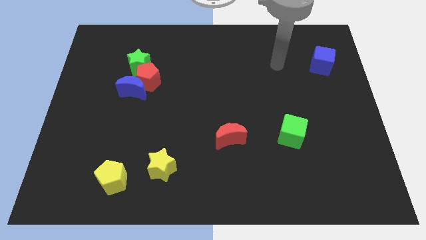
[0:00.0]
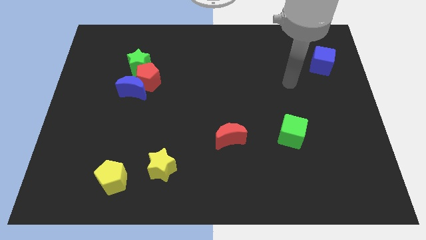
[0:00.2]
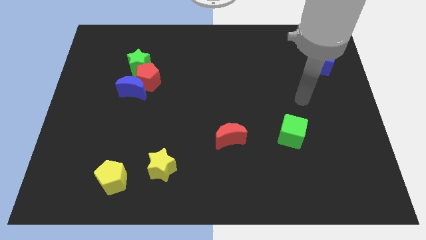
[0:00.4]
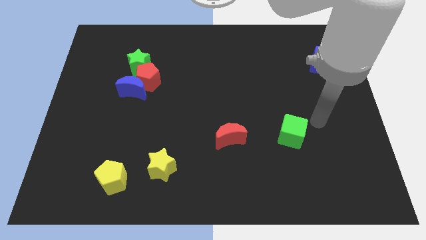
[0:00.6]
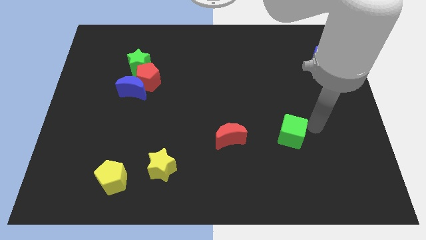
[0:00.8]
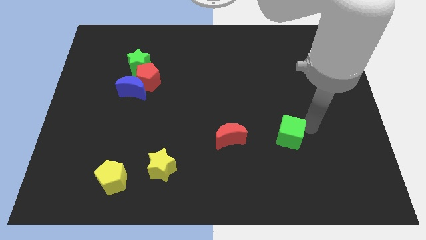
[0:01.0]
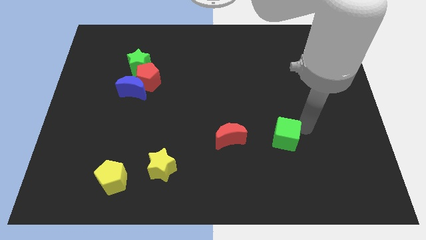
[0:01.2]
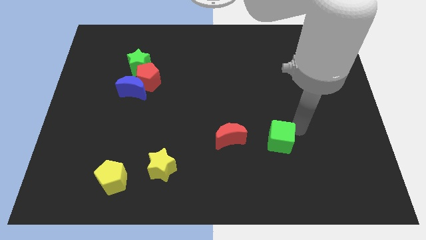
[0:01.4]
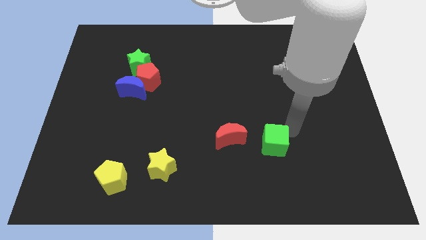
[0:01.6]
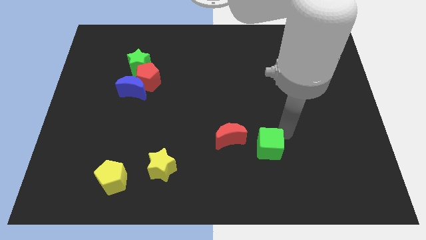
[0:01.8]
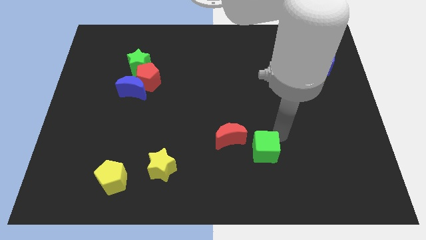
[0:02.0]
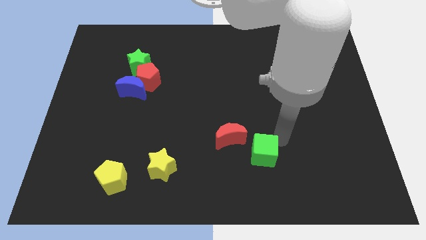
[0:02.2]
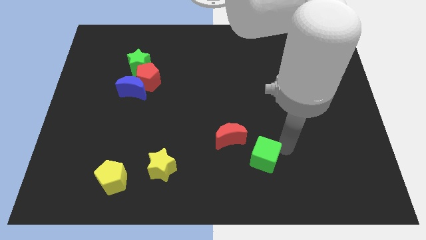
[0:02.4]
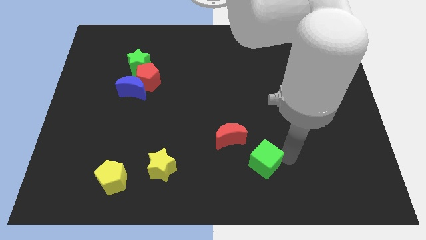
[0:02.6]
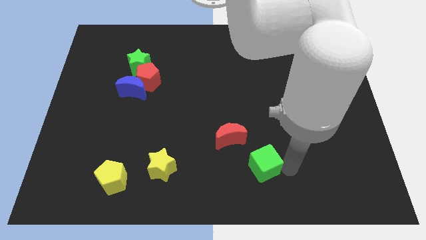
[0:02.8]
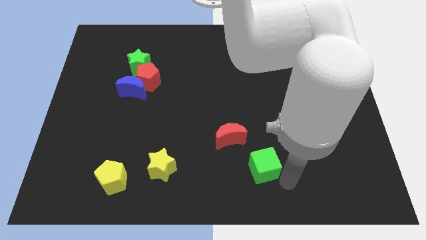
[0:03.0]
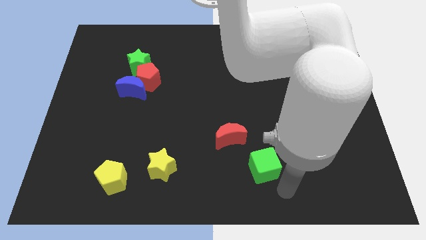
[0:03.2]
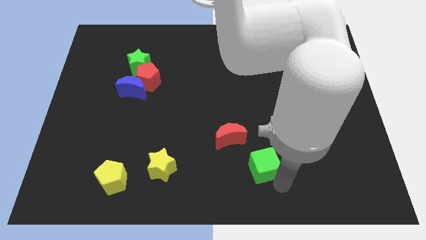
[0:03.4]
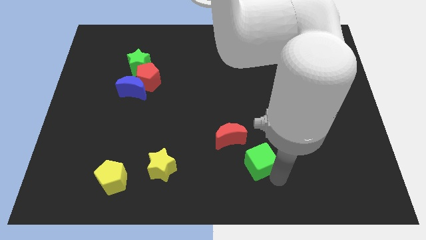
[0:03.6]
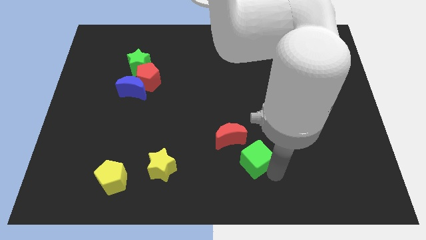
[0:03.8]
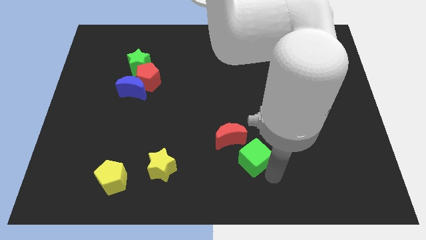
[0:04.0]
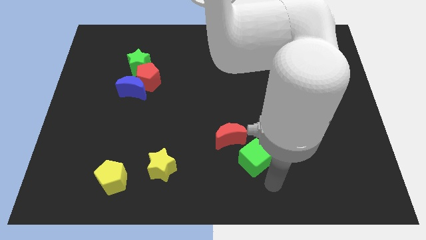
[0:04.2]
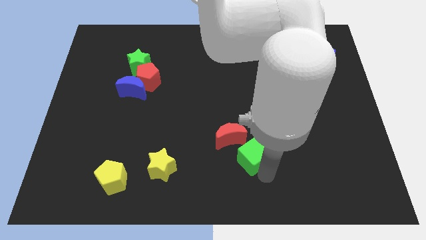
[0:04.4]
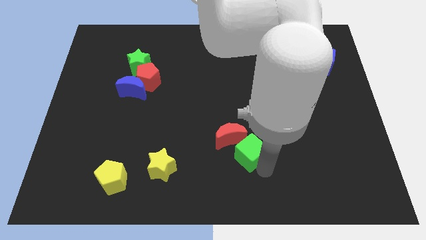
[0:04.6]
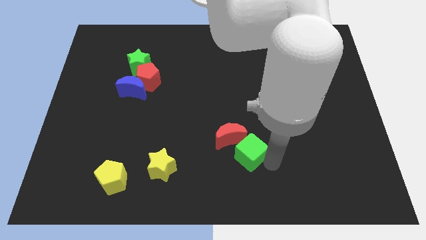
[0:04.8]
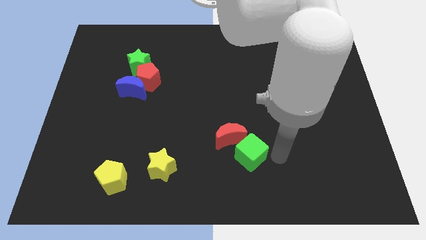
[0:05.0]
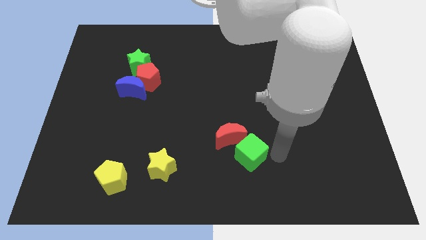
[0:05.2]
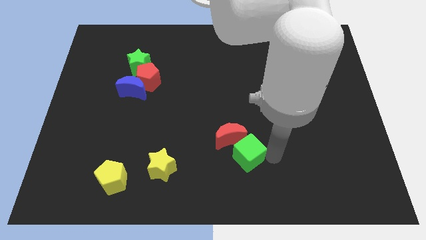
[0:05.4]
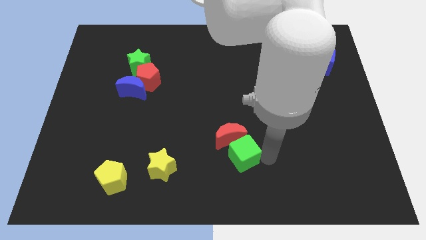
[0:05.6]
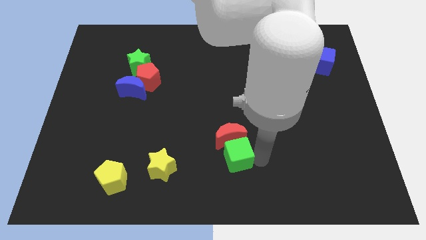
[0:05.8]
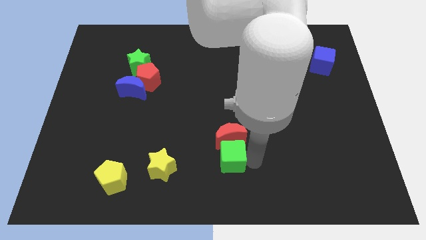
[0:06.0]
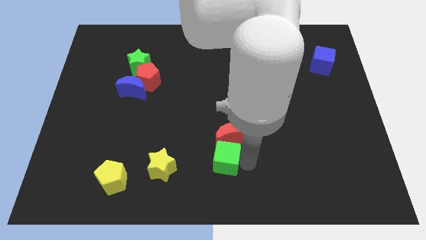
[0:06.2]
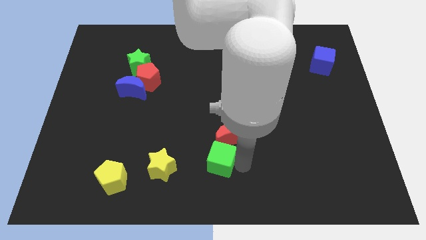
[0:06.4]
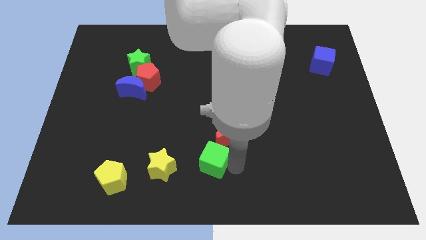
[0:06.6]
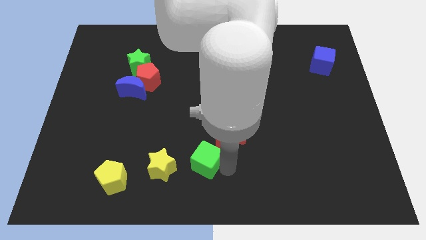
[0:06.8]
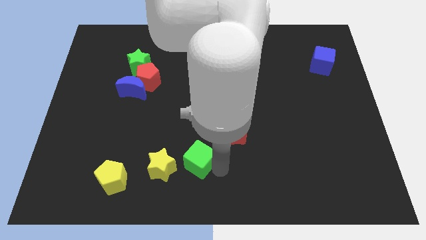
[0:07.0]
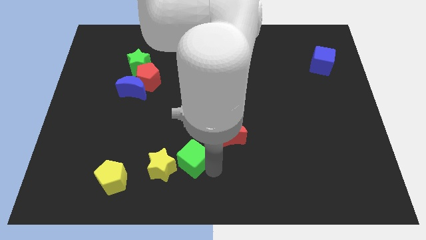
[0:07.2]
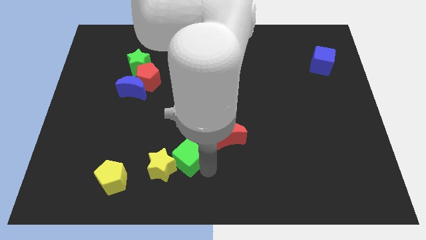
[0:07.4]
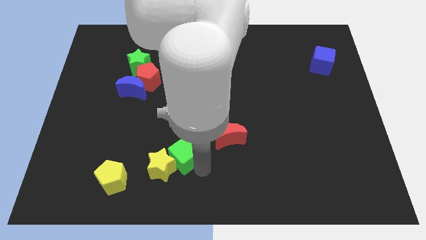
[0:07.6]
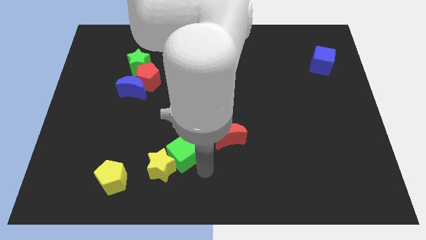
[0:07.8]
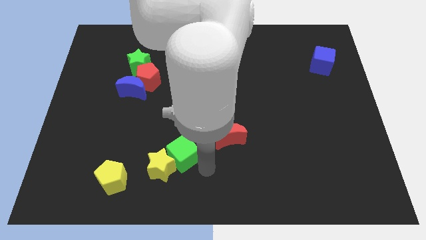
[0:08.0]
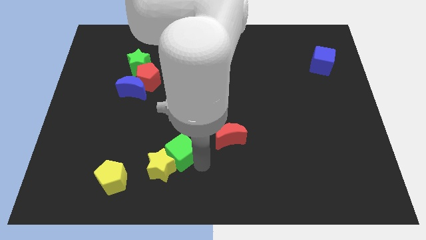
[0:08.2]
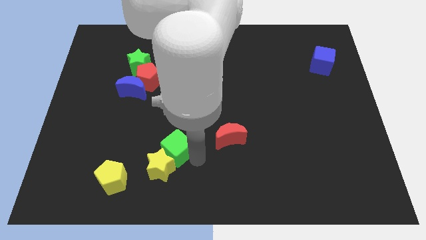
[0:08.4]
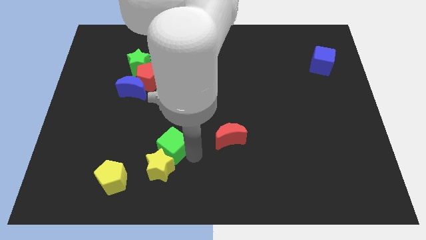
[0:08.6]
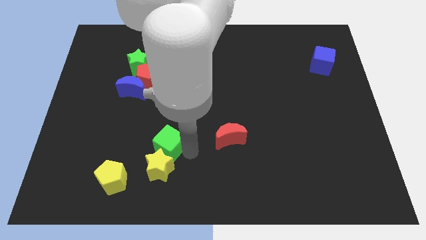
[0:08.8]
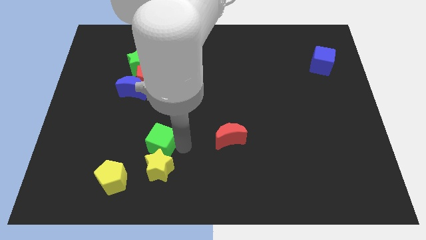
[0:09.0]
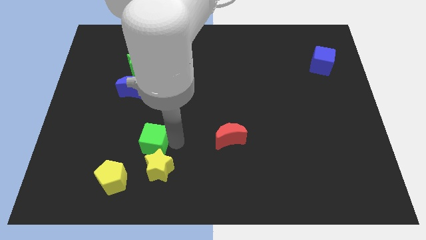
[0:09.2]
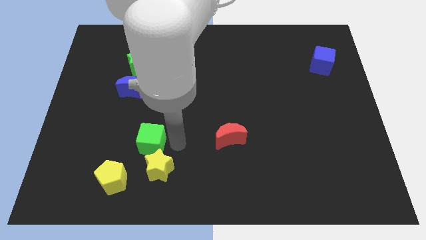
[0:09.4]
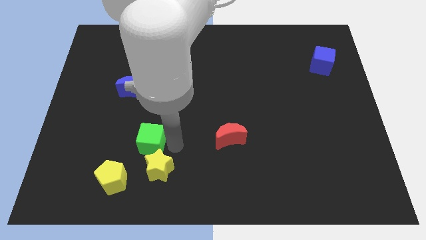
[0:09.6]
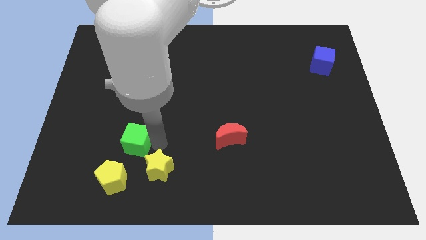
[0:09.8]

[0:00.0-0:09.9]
move the green cube to the top side of the yellow pentagon

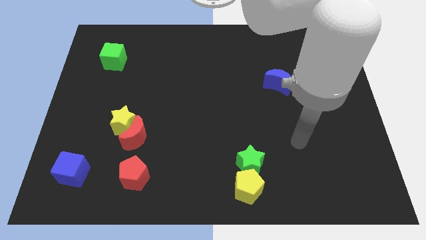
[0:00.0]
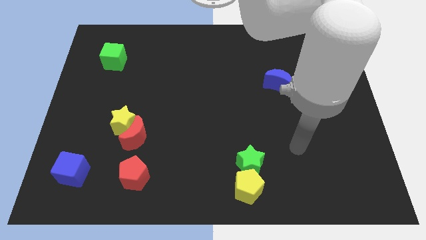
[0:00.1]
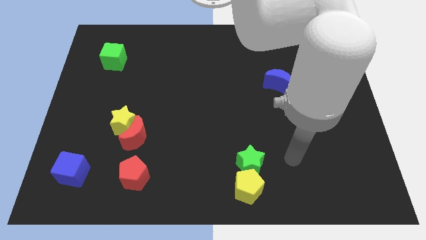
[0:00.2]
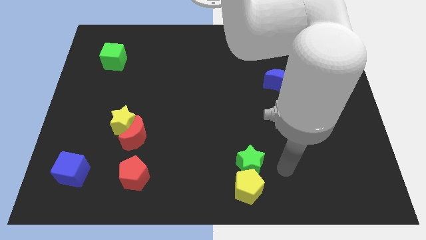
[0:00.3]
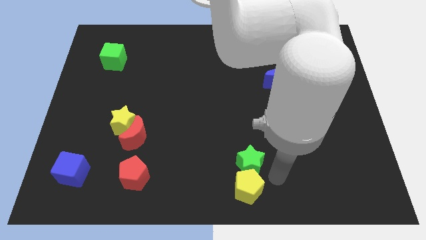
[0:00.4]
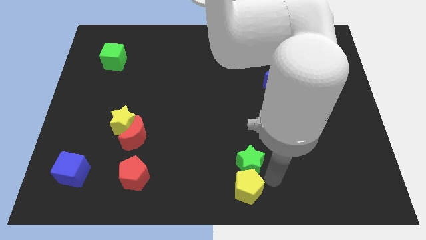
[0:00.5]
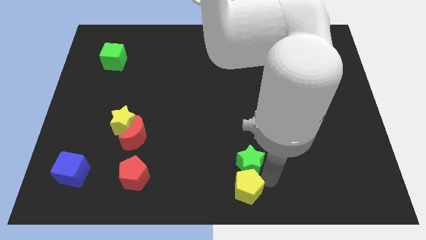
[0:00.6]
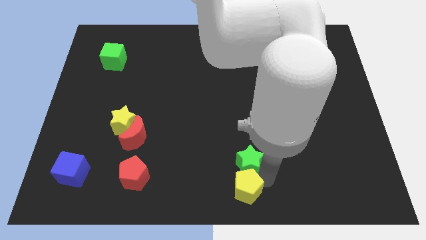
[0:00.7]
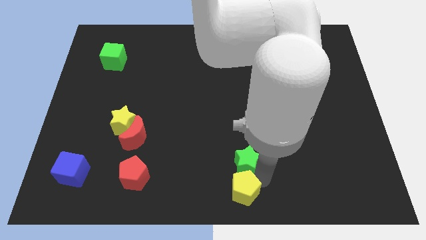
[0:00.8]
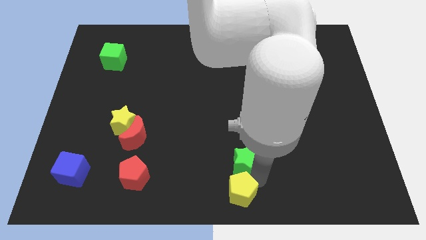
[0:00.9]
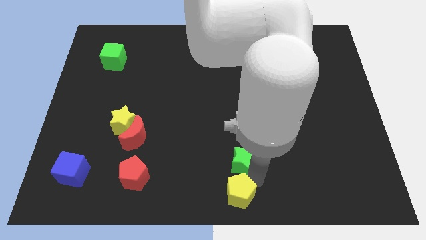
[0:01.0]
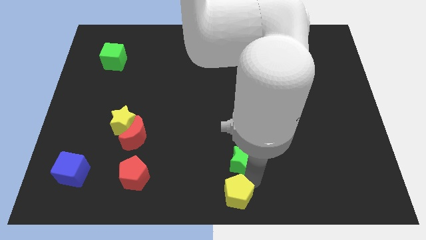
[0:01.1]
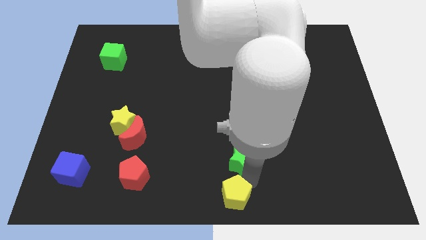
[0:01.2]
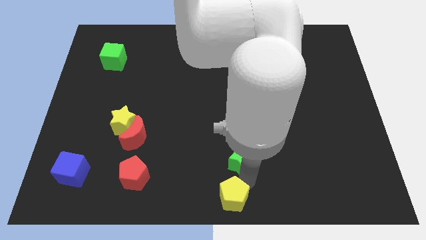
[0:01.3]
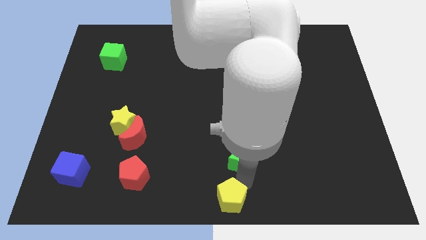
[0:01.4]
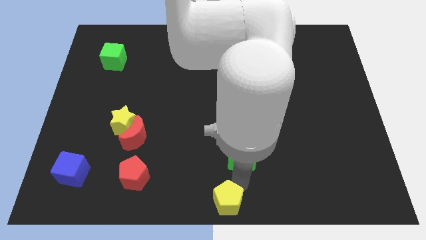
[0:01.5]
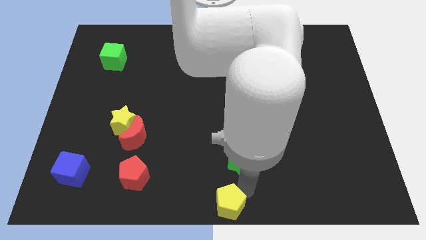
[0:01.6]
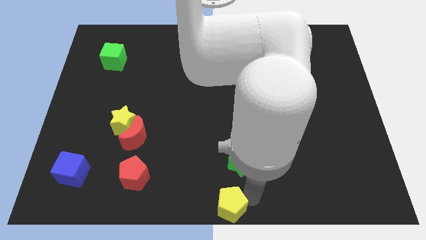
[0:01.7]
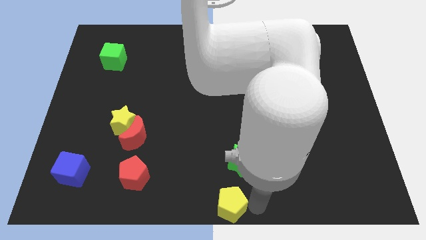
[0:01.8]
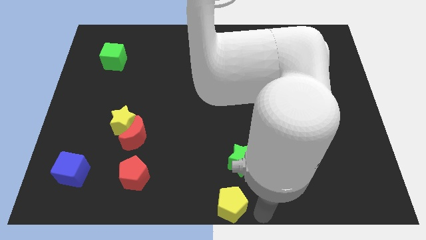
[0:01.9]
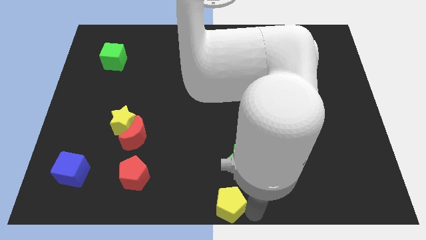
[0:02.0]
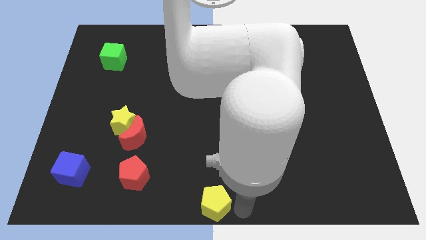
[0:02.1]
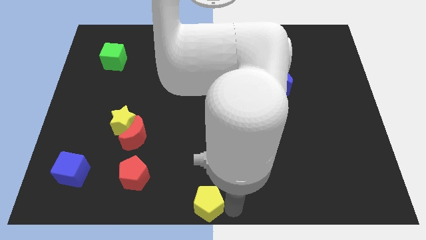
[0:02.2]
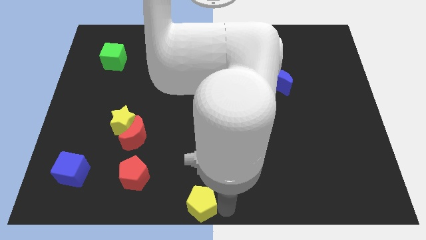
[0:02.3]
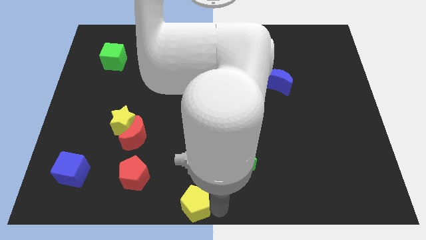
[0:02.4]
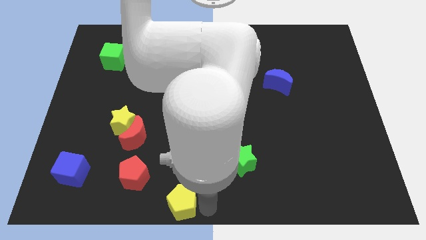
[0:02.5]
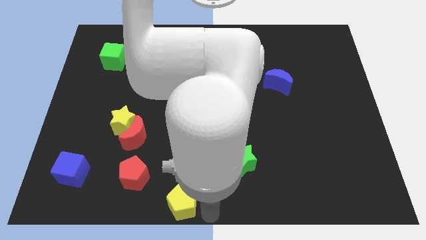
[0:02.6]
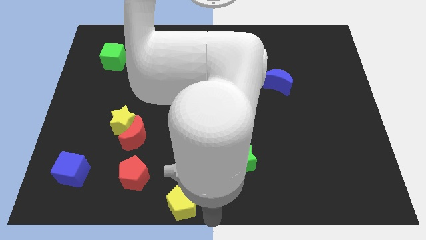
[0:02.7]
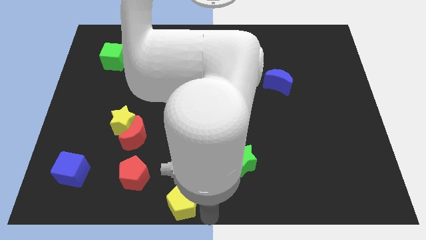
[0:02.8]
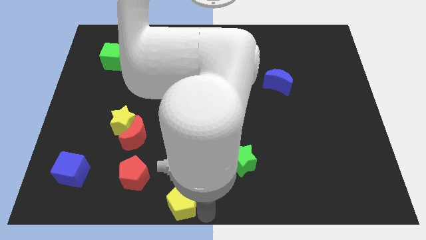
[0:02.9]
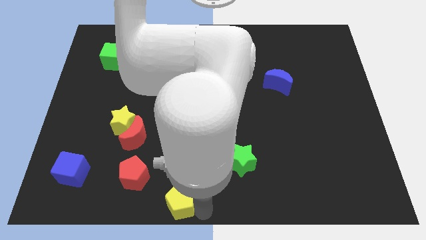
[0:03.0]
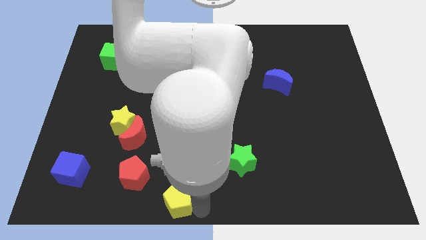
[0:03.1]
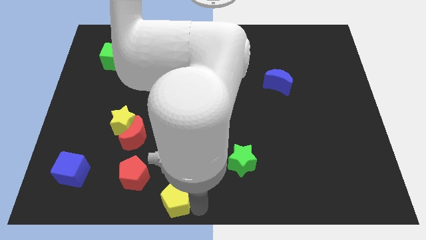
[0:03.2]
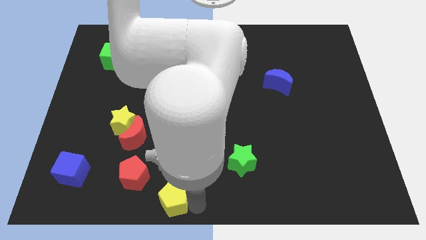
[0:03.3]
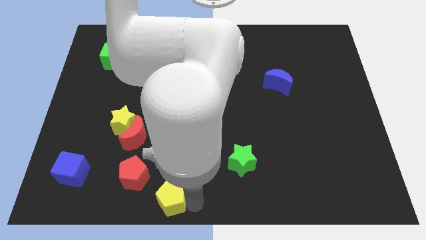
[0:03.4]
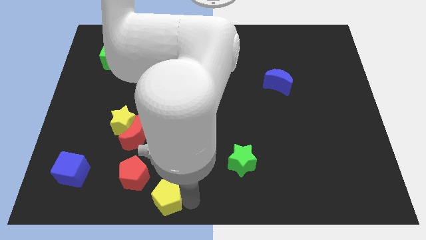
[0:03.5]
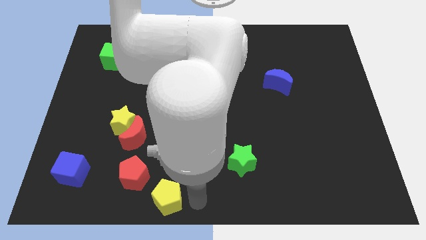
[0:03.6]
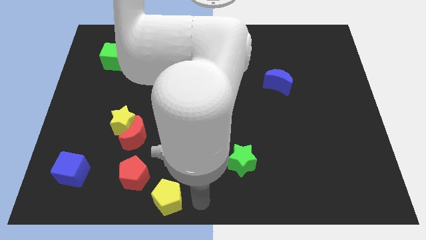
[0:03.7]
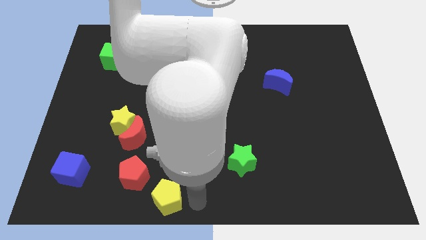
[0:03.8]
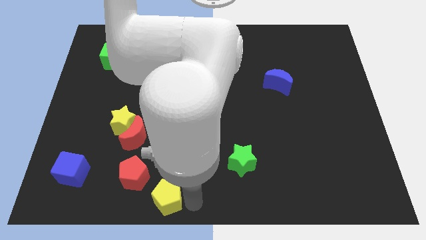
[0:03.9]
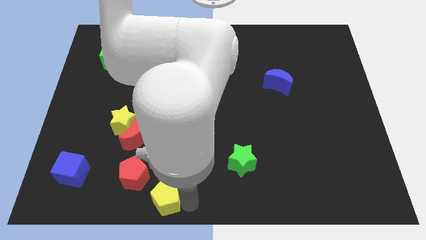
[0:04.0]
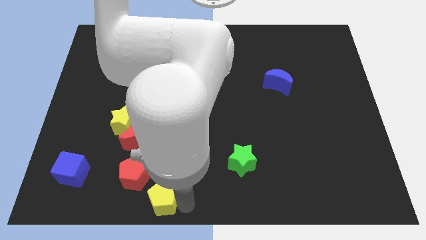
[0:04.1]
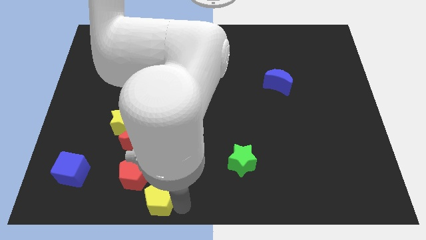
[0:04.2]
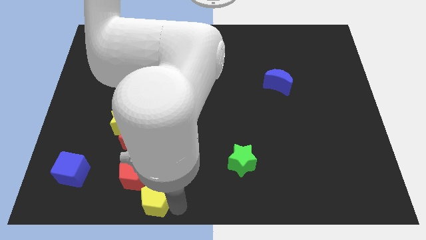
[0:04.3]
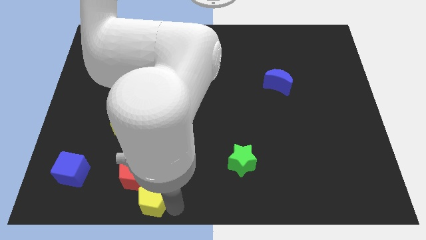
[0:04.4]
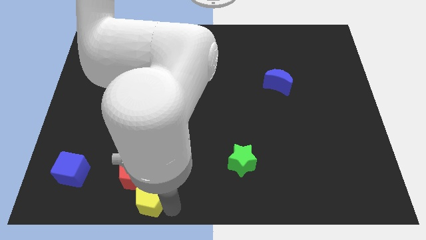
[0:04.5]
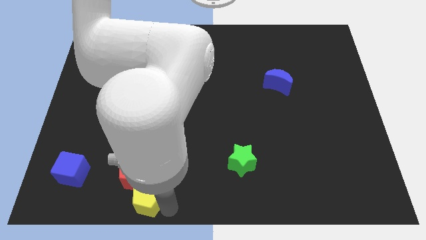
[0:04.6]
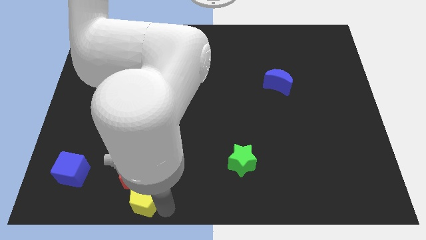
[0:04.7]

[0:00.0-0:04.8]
push the yellow pentagon to the bottom side of the red moon
